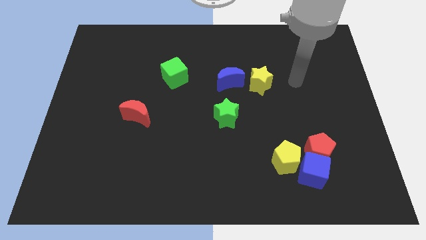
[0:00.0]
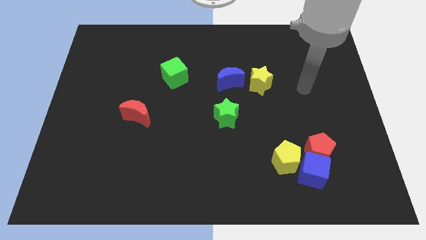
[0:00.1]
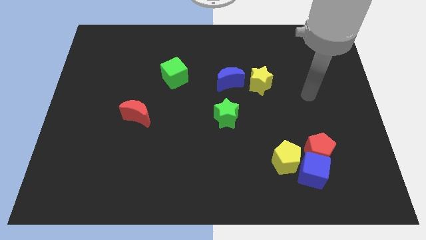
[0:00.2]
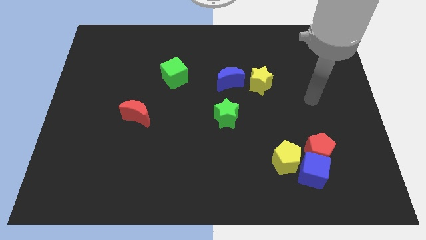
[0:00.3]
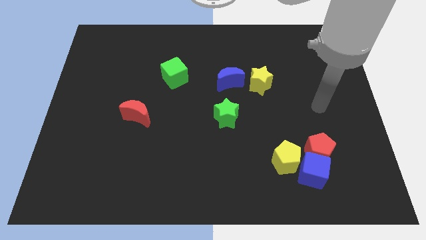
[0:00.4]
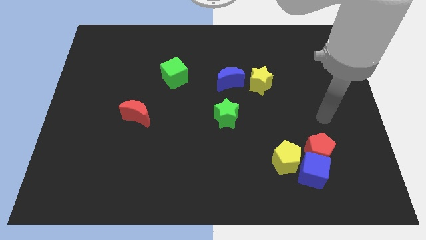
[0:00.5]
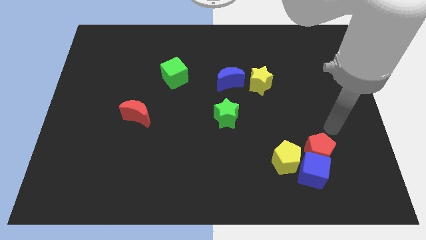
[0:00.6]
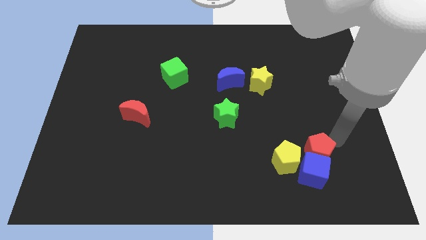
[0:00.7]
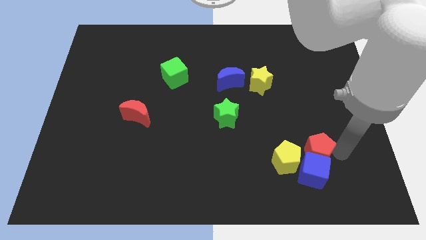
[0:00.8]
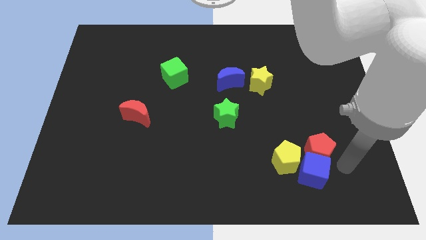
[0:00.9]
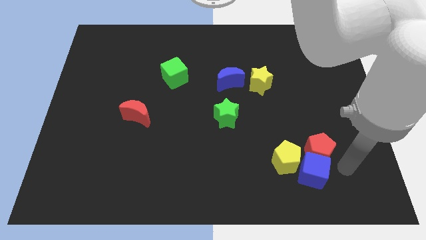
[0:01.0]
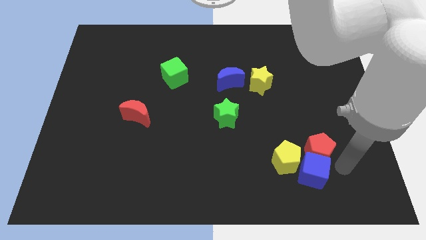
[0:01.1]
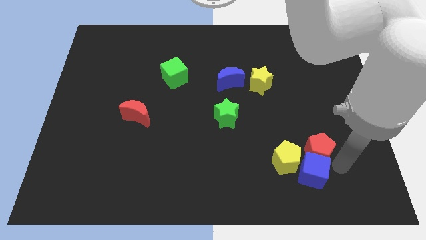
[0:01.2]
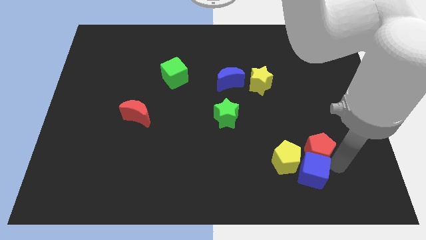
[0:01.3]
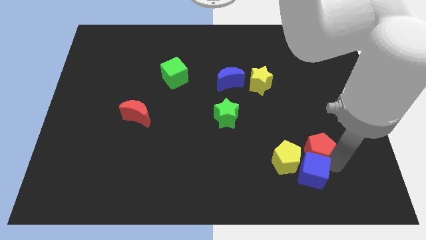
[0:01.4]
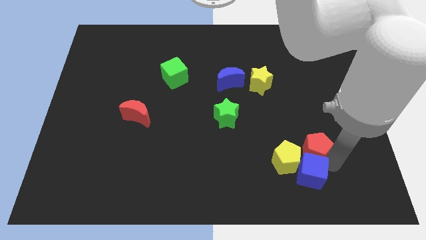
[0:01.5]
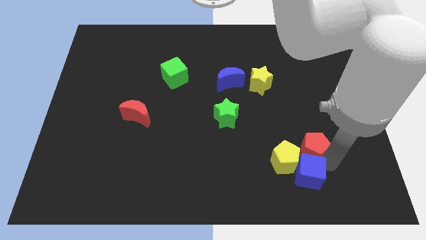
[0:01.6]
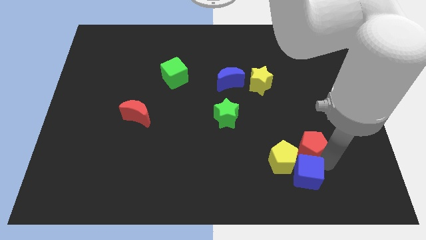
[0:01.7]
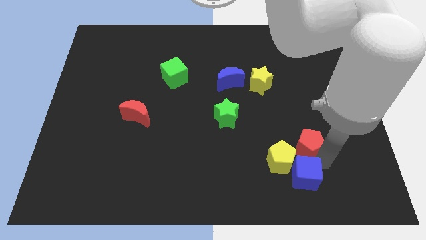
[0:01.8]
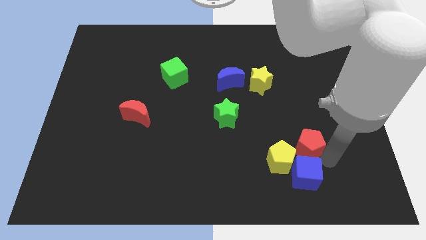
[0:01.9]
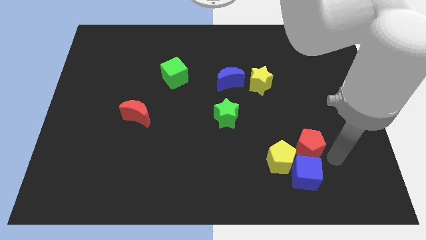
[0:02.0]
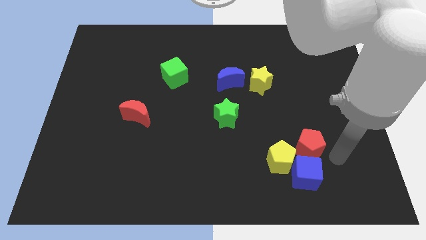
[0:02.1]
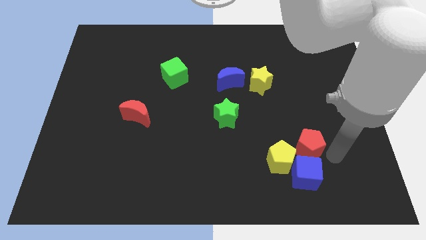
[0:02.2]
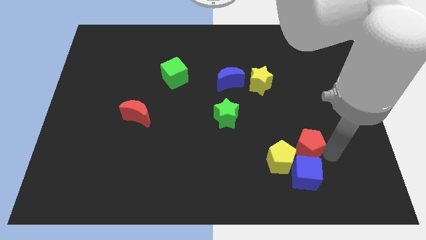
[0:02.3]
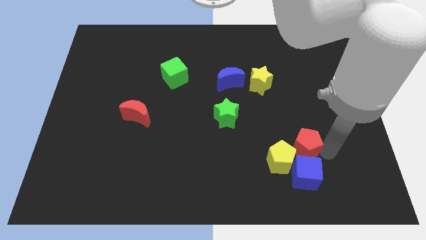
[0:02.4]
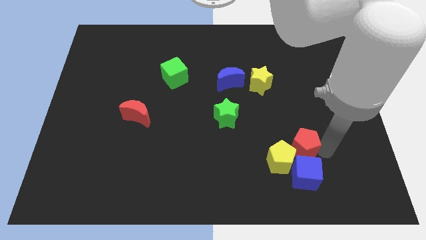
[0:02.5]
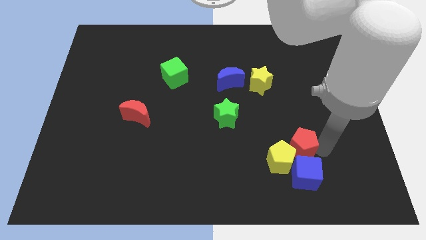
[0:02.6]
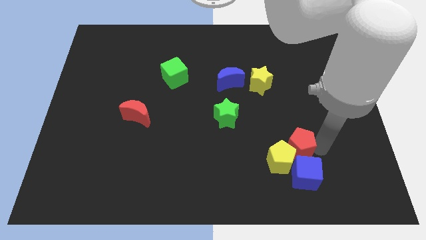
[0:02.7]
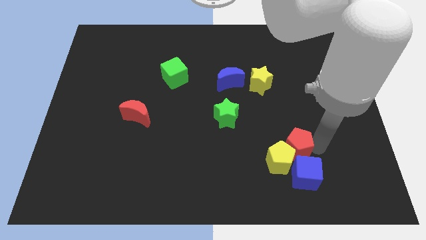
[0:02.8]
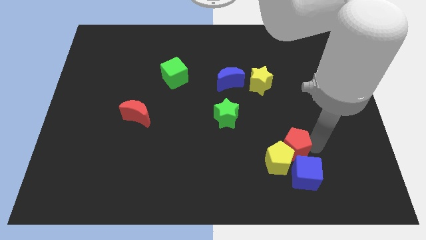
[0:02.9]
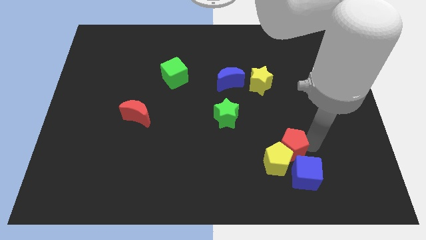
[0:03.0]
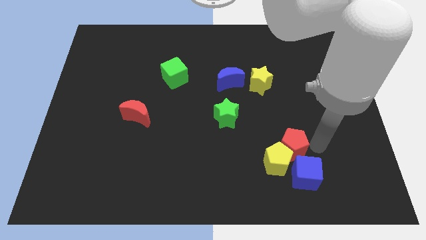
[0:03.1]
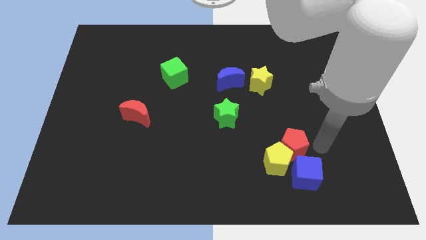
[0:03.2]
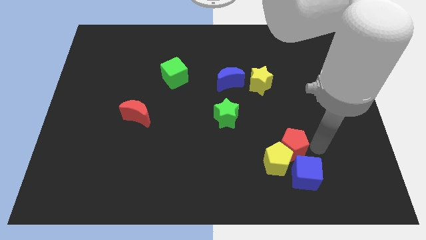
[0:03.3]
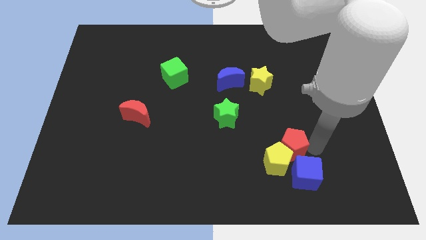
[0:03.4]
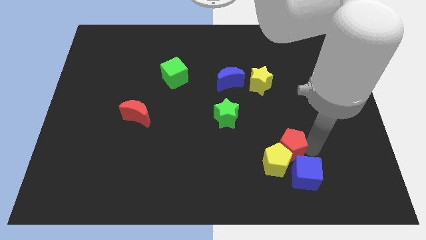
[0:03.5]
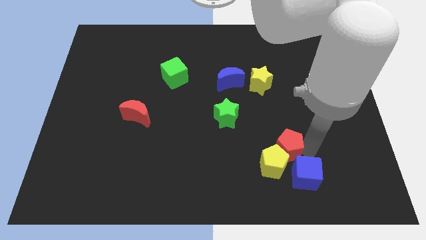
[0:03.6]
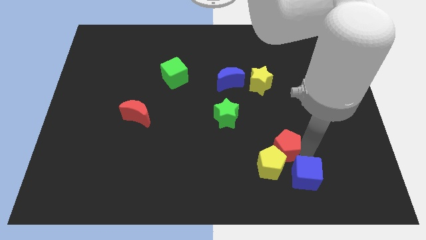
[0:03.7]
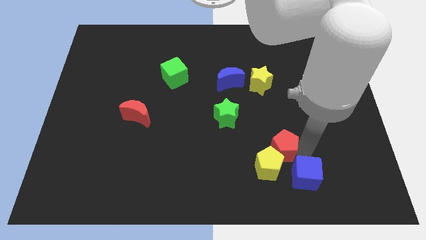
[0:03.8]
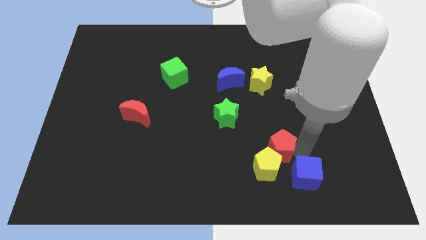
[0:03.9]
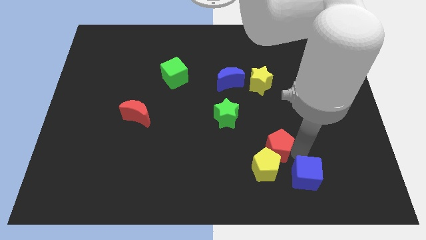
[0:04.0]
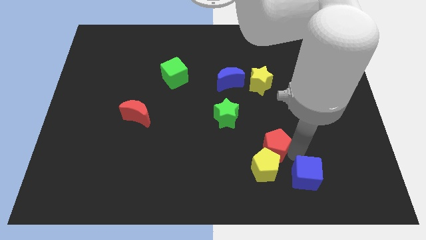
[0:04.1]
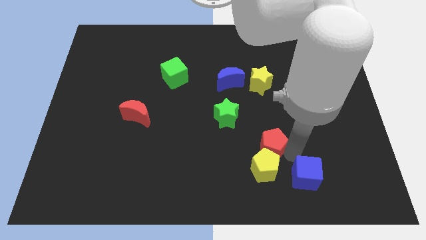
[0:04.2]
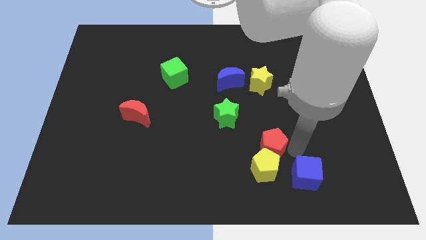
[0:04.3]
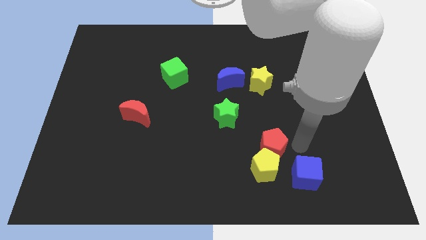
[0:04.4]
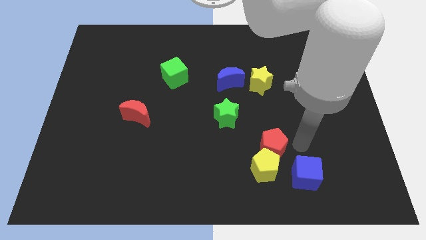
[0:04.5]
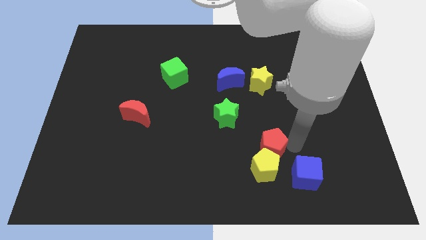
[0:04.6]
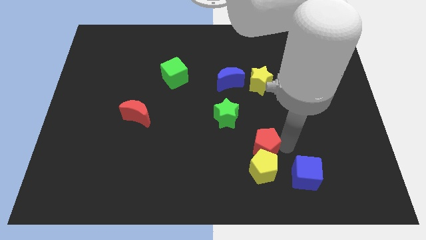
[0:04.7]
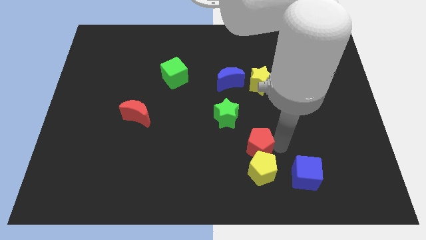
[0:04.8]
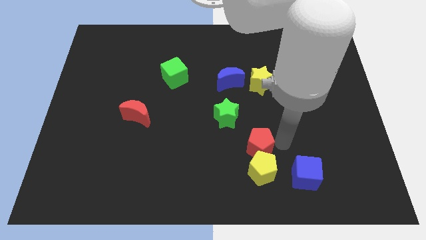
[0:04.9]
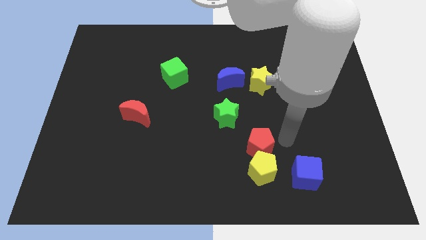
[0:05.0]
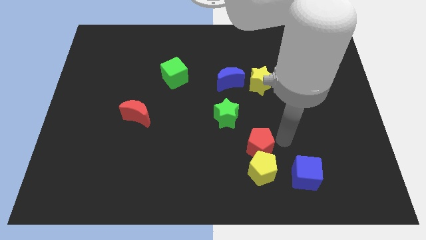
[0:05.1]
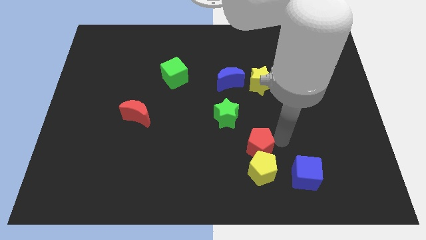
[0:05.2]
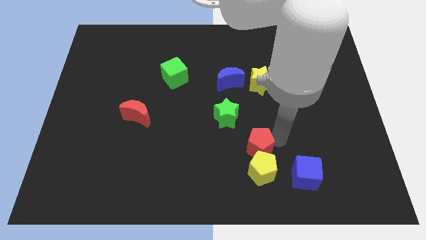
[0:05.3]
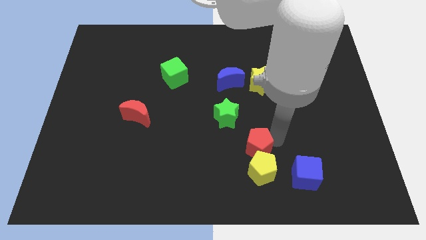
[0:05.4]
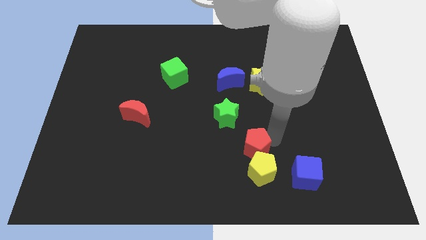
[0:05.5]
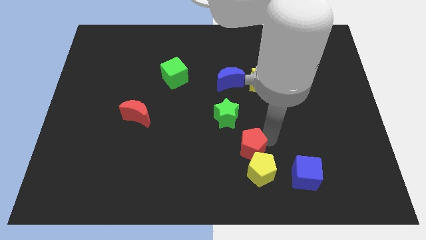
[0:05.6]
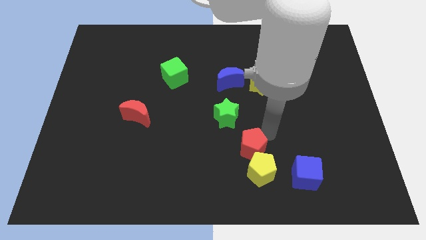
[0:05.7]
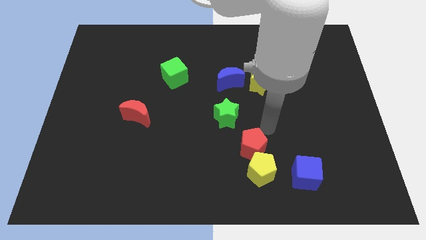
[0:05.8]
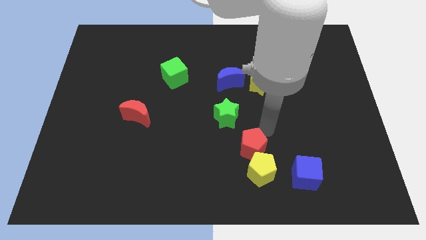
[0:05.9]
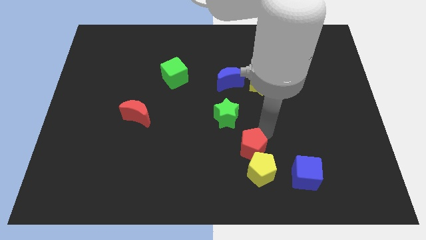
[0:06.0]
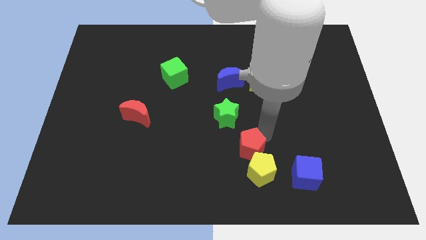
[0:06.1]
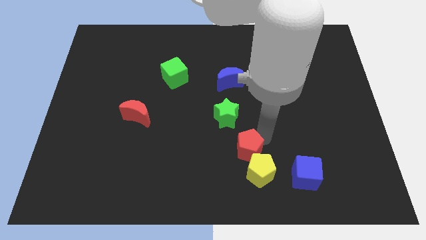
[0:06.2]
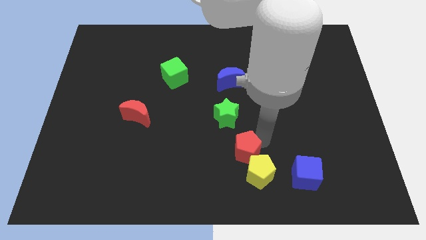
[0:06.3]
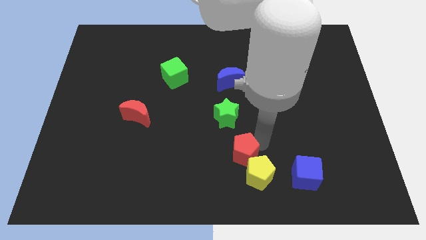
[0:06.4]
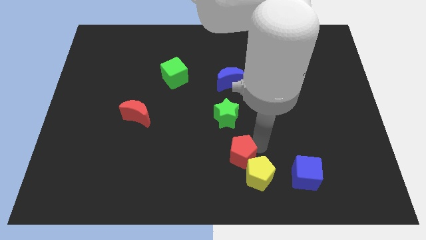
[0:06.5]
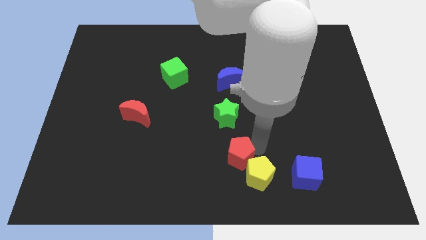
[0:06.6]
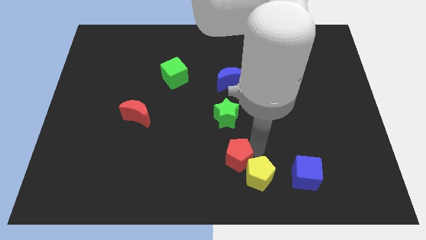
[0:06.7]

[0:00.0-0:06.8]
move the red pentagon to the bottom side
